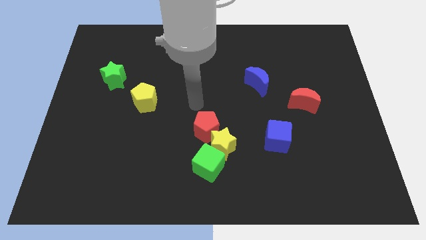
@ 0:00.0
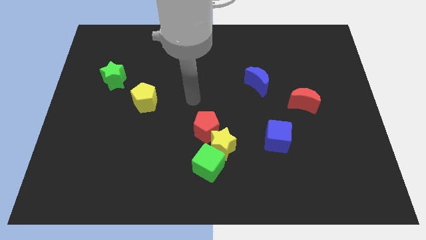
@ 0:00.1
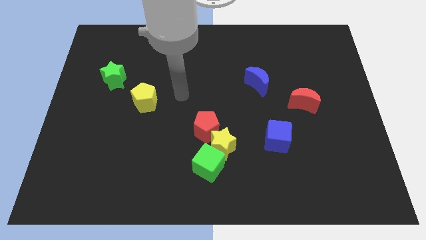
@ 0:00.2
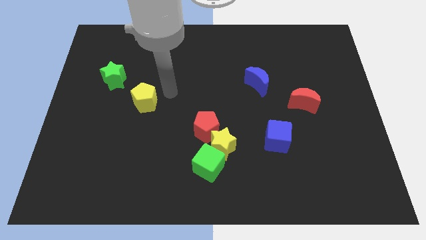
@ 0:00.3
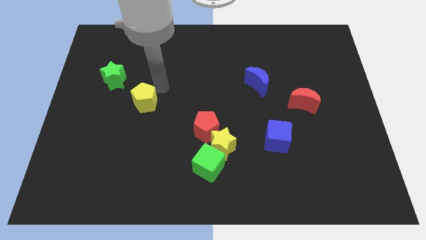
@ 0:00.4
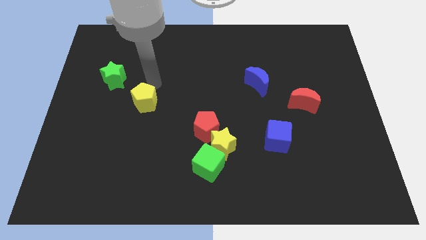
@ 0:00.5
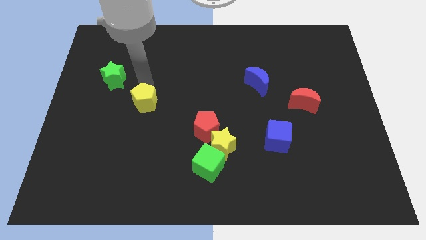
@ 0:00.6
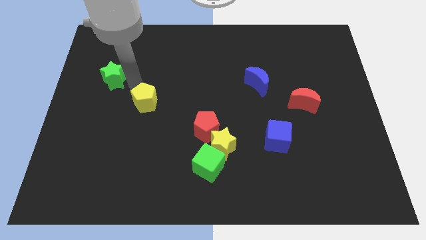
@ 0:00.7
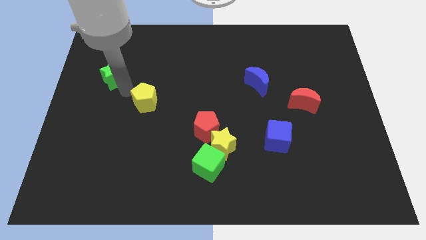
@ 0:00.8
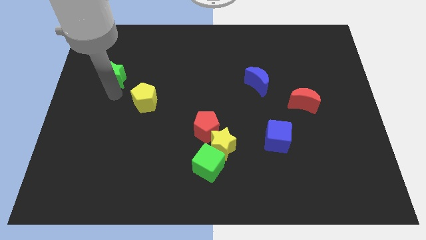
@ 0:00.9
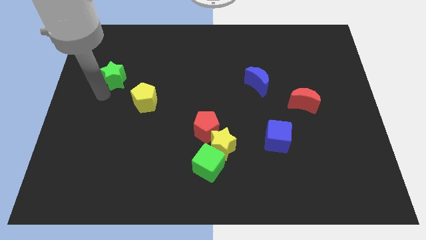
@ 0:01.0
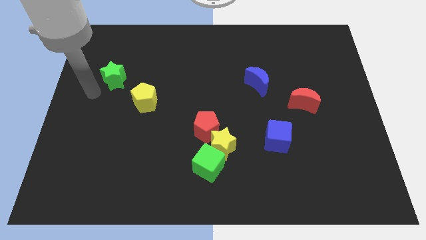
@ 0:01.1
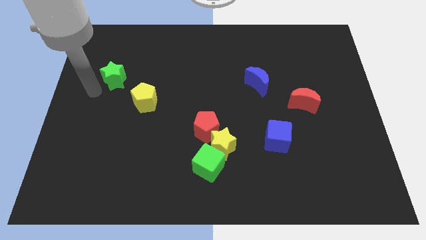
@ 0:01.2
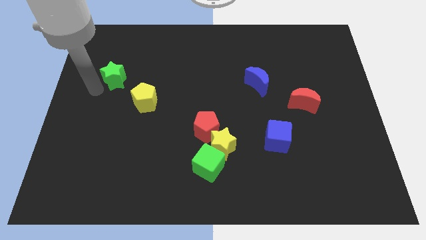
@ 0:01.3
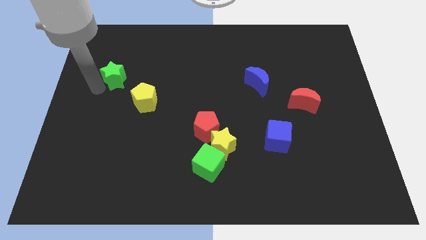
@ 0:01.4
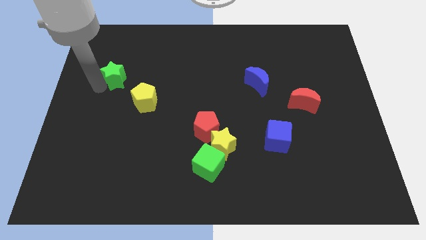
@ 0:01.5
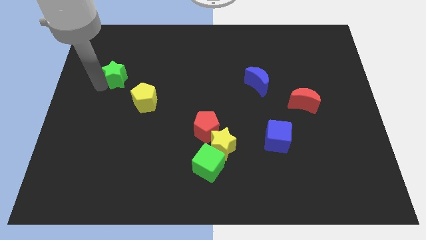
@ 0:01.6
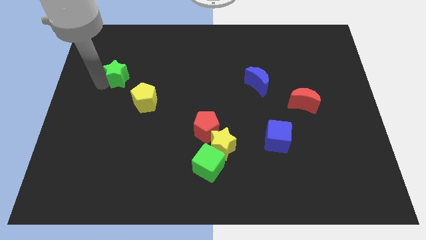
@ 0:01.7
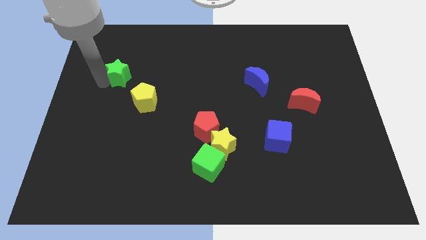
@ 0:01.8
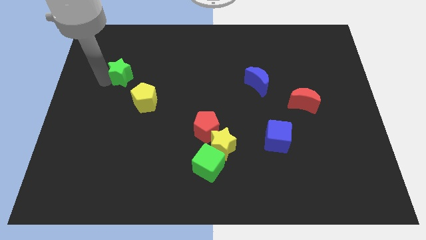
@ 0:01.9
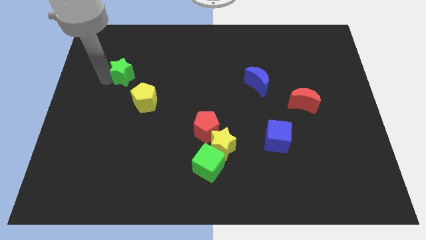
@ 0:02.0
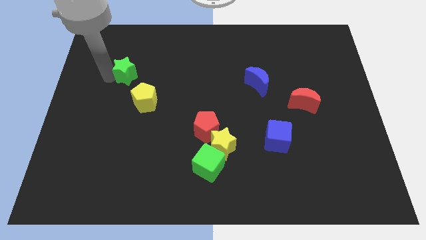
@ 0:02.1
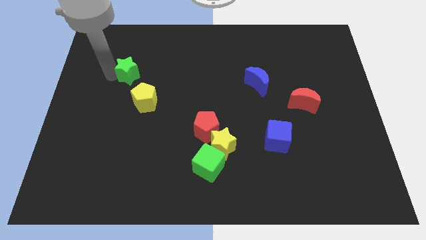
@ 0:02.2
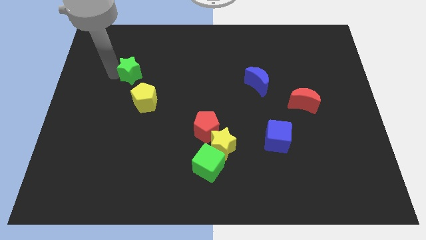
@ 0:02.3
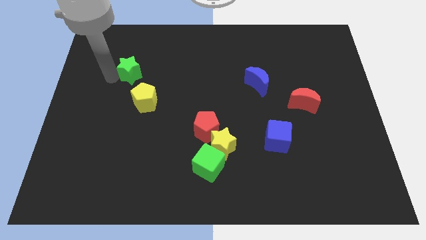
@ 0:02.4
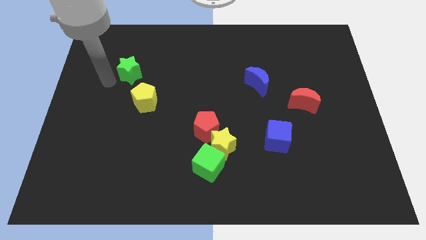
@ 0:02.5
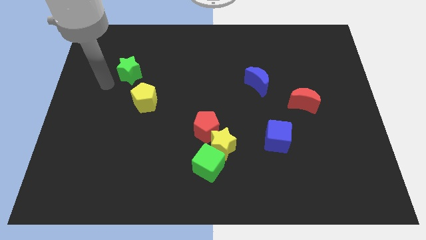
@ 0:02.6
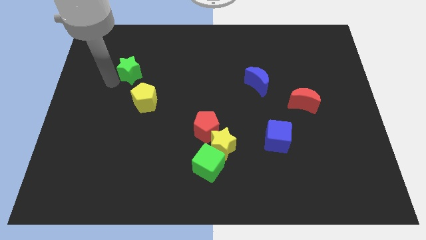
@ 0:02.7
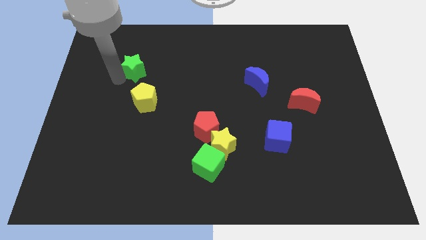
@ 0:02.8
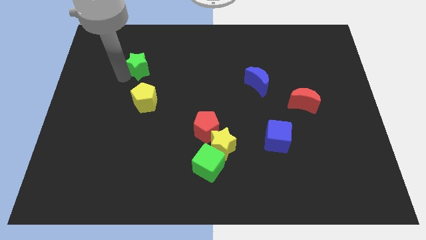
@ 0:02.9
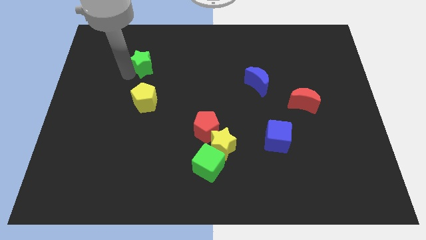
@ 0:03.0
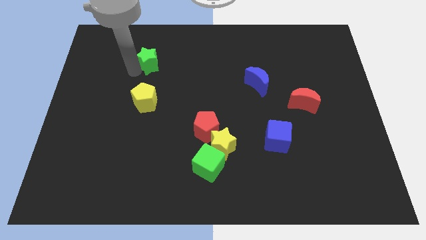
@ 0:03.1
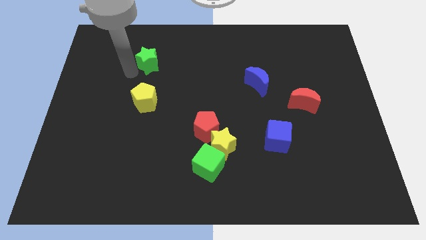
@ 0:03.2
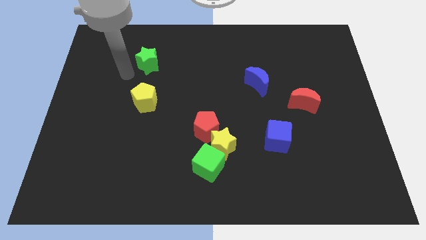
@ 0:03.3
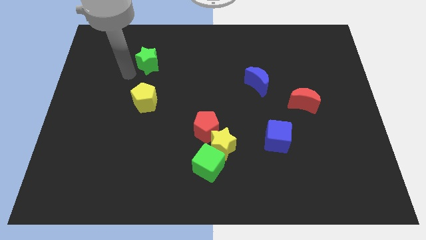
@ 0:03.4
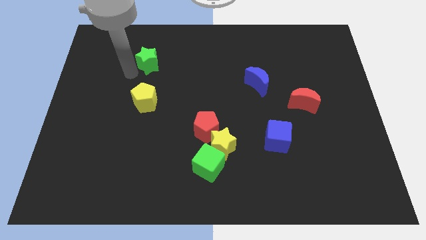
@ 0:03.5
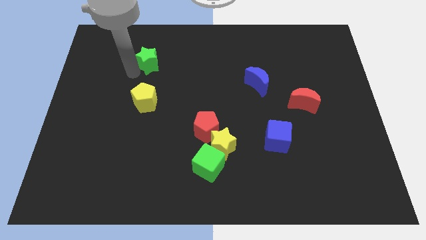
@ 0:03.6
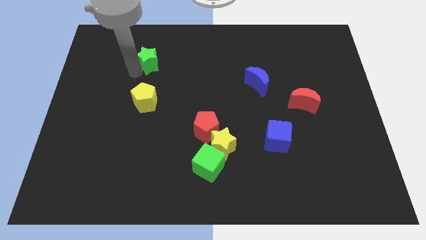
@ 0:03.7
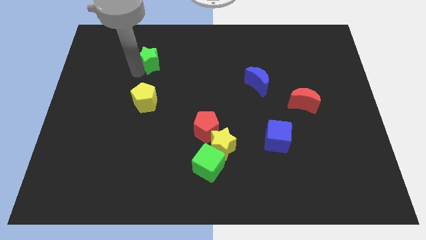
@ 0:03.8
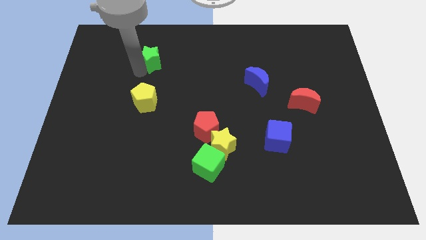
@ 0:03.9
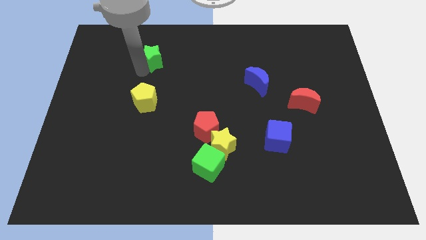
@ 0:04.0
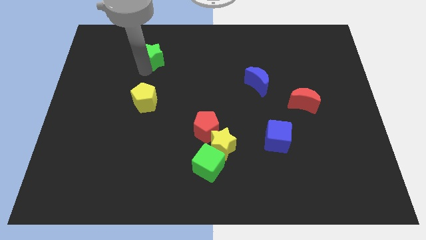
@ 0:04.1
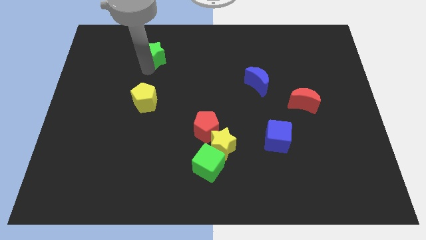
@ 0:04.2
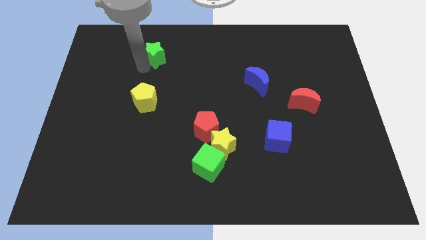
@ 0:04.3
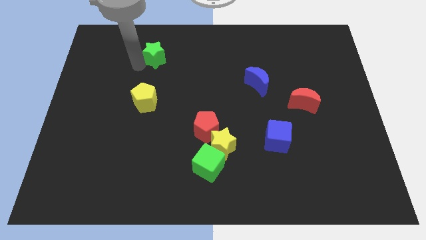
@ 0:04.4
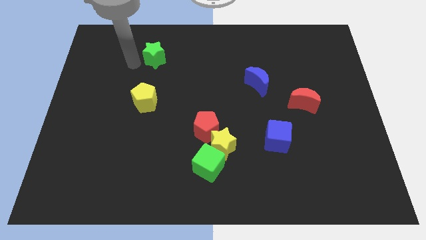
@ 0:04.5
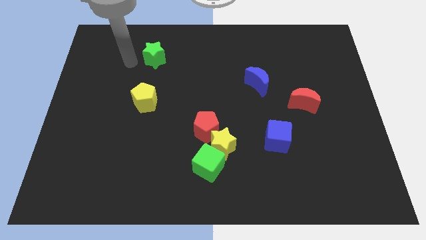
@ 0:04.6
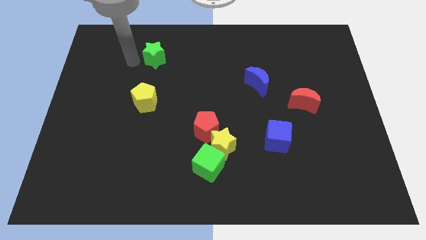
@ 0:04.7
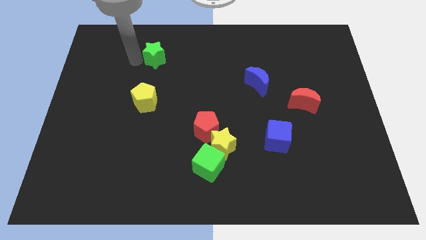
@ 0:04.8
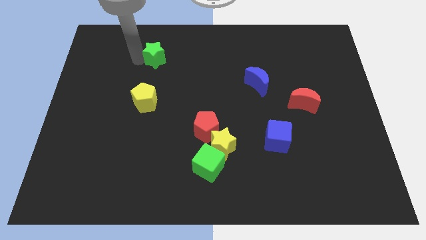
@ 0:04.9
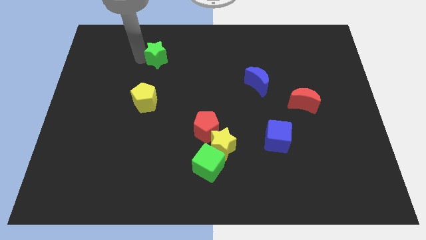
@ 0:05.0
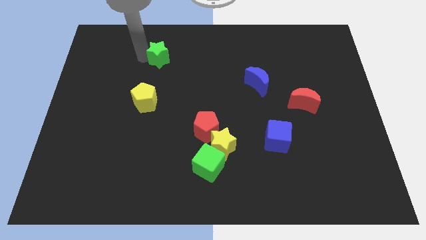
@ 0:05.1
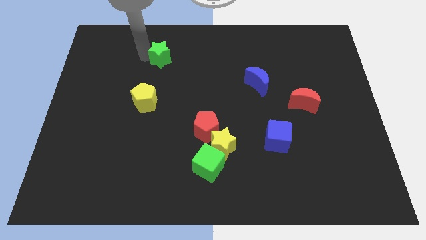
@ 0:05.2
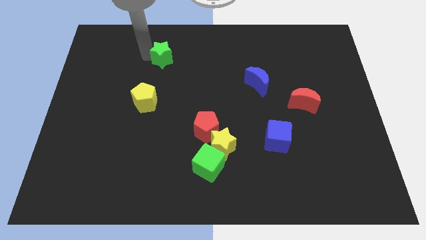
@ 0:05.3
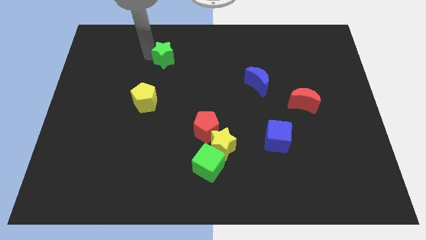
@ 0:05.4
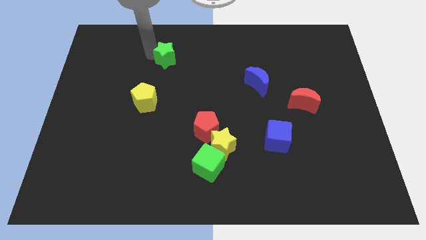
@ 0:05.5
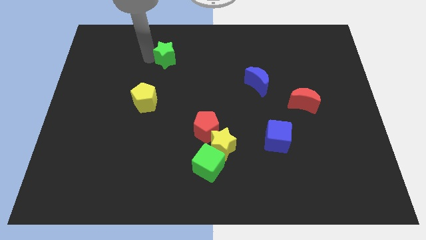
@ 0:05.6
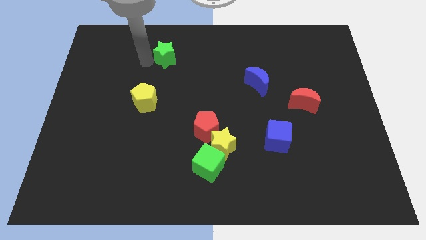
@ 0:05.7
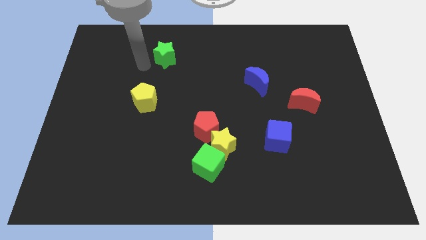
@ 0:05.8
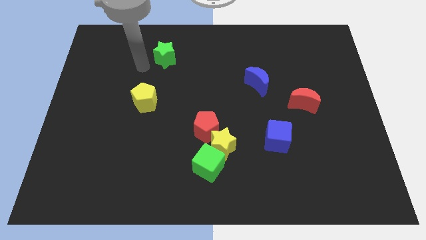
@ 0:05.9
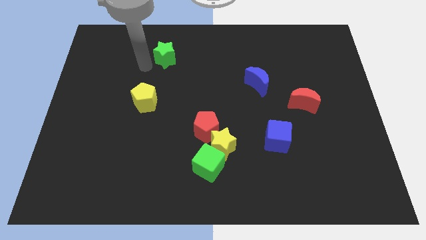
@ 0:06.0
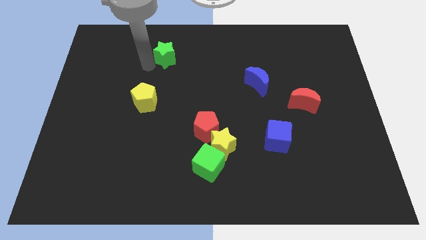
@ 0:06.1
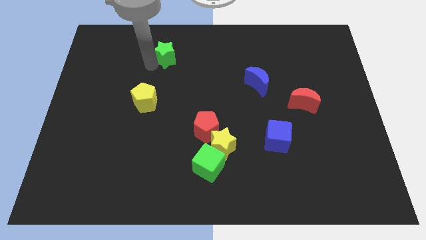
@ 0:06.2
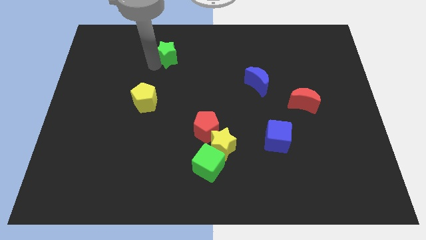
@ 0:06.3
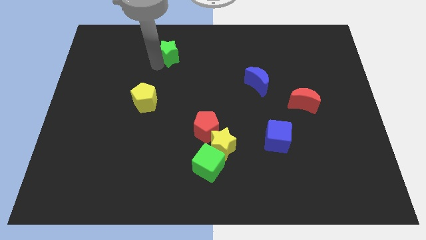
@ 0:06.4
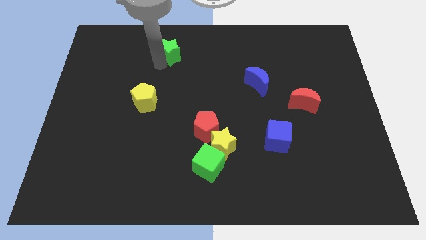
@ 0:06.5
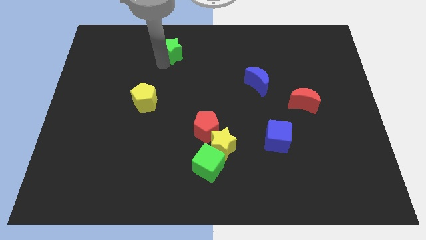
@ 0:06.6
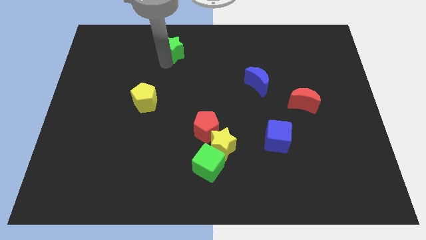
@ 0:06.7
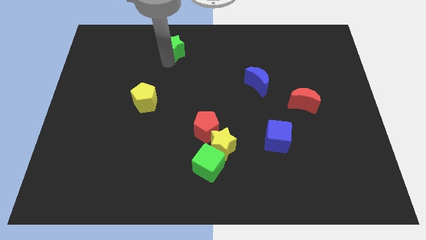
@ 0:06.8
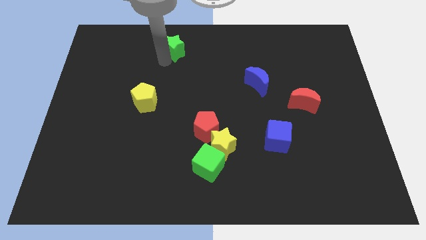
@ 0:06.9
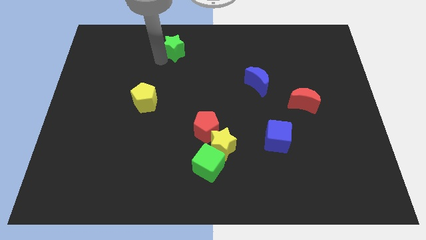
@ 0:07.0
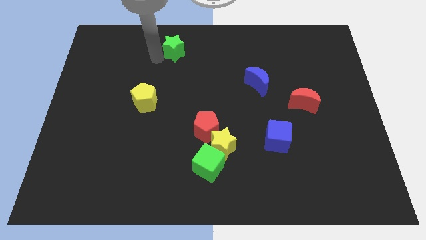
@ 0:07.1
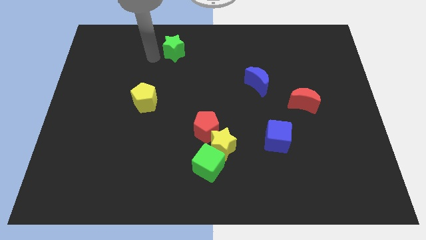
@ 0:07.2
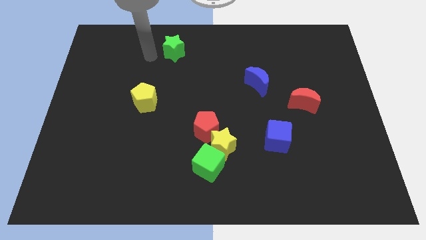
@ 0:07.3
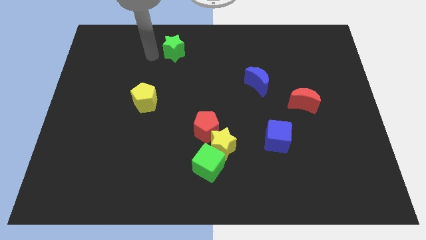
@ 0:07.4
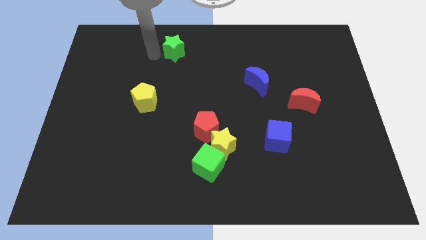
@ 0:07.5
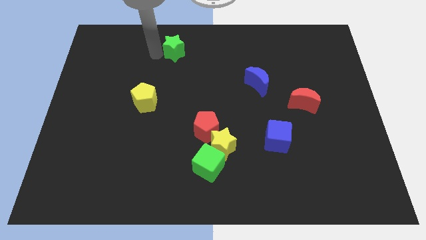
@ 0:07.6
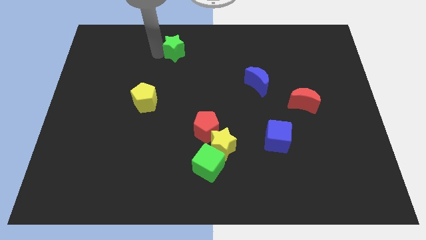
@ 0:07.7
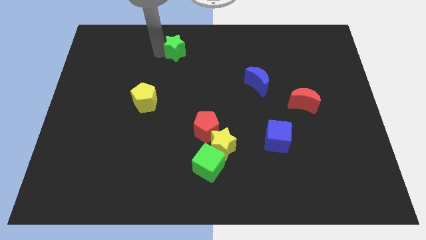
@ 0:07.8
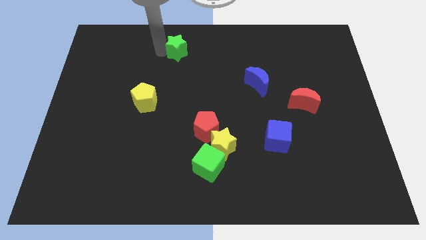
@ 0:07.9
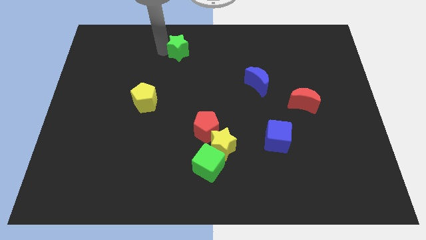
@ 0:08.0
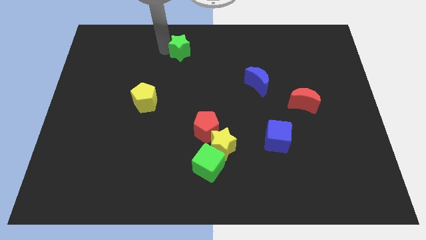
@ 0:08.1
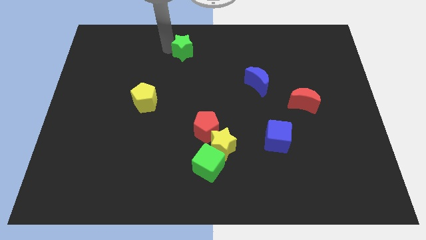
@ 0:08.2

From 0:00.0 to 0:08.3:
put the green star to the top side
